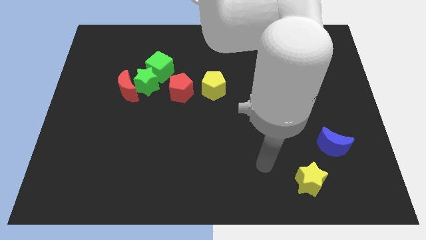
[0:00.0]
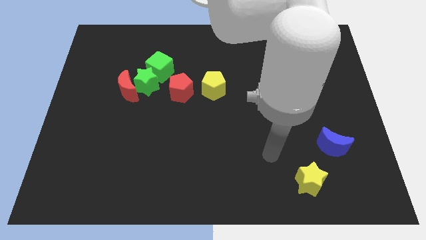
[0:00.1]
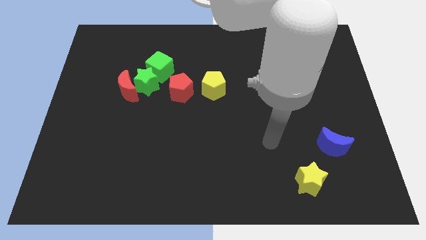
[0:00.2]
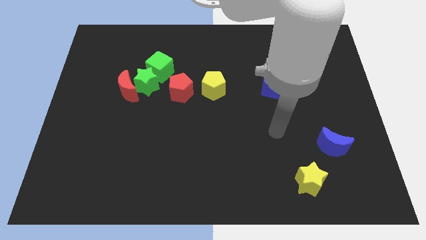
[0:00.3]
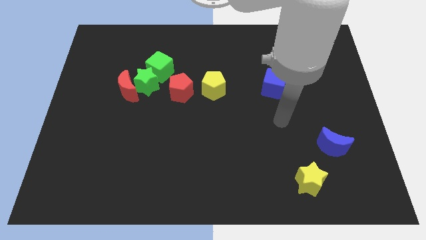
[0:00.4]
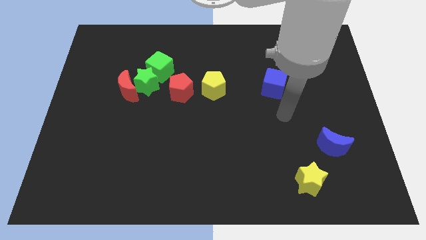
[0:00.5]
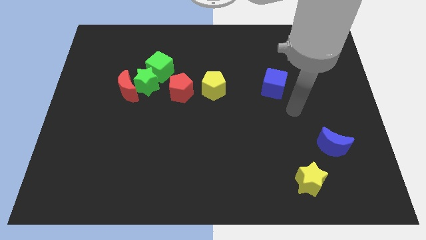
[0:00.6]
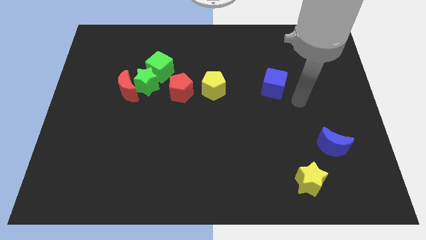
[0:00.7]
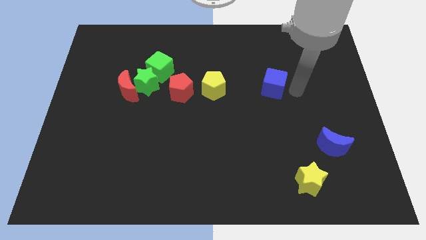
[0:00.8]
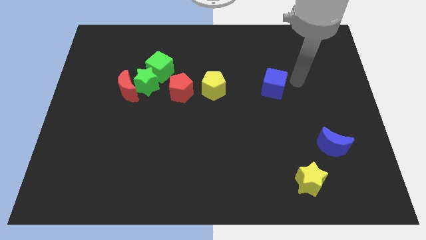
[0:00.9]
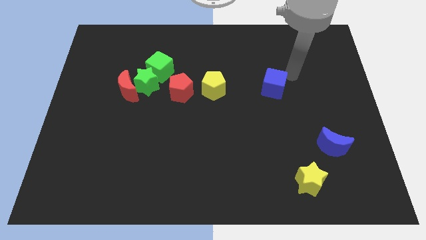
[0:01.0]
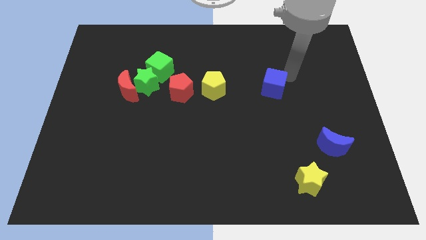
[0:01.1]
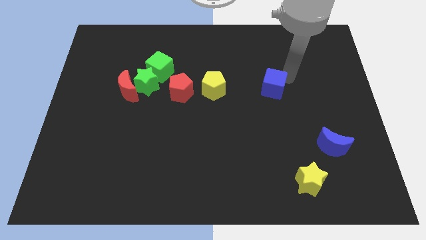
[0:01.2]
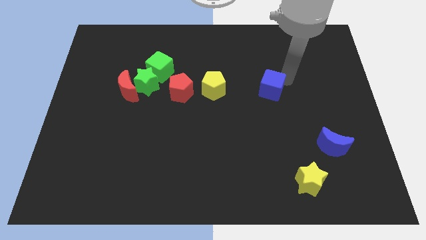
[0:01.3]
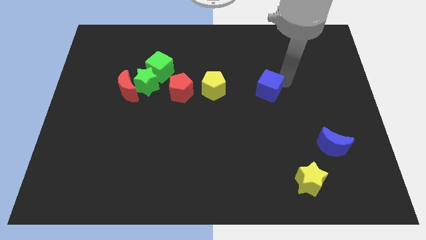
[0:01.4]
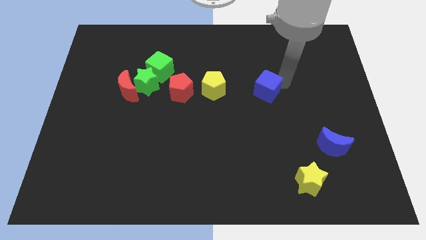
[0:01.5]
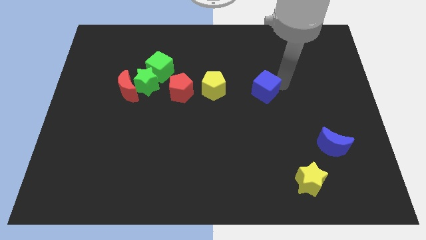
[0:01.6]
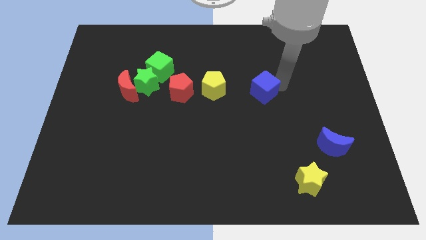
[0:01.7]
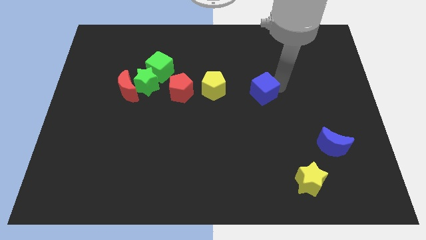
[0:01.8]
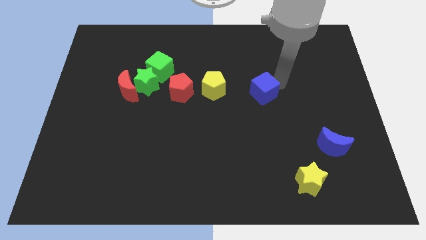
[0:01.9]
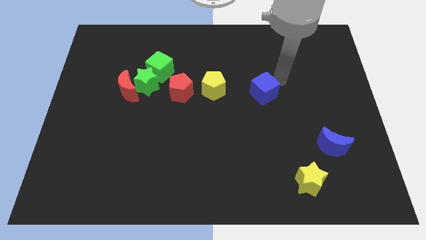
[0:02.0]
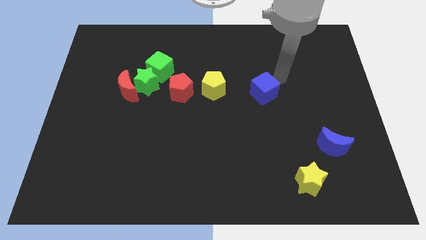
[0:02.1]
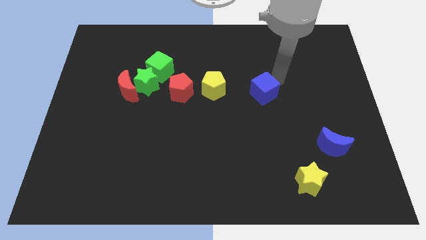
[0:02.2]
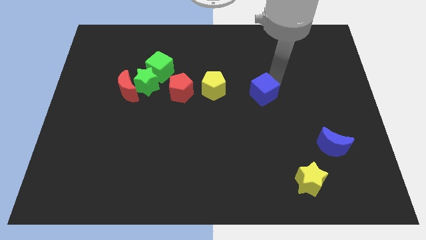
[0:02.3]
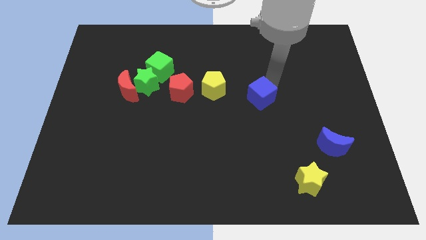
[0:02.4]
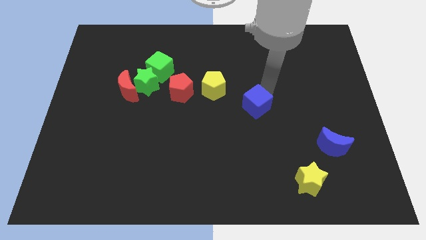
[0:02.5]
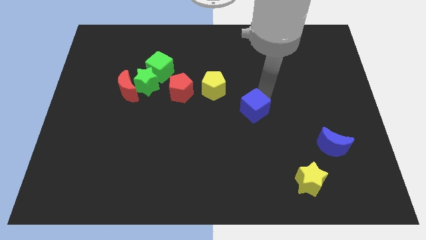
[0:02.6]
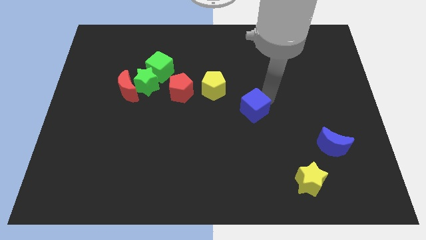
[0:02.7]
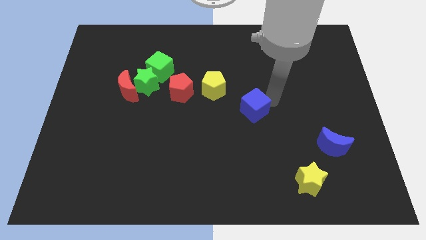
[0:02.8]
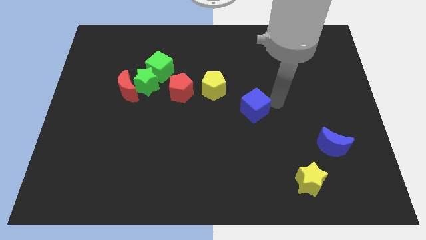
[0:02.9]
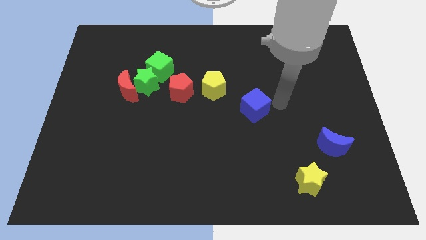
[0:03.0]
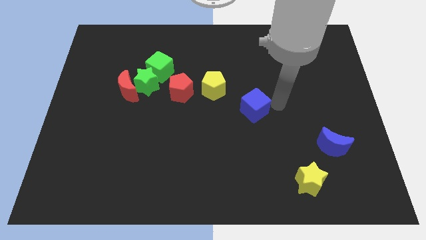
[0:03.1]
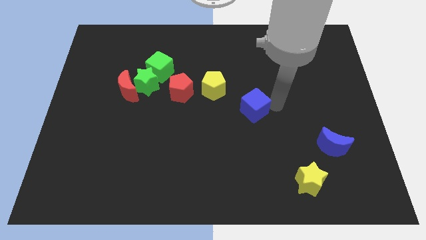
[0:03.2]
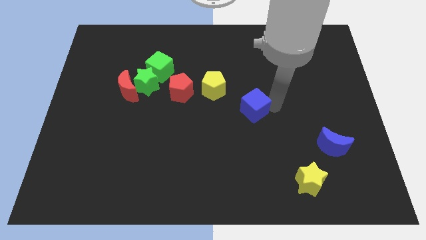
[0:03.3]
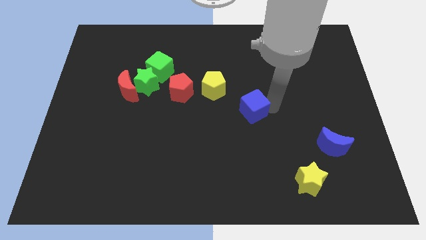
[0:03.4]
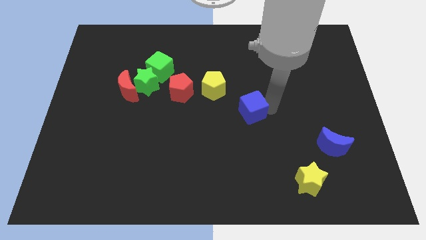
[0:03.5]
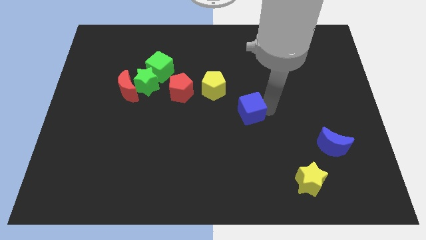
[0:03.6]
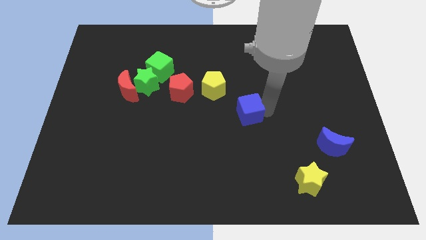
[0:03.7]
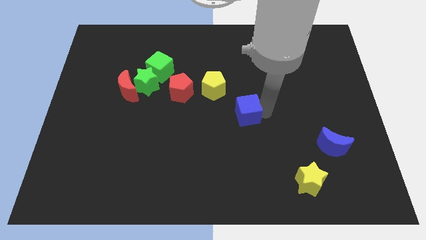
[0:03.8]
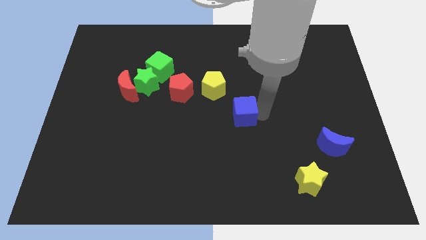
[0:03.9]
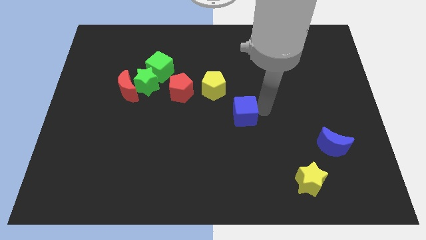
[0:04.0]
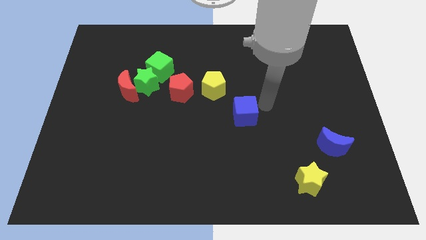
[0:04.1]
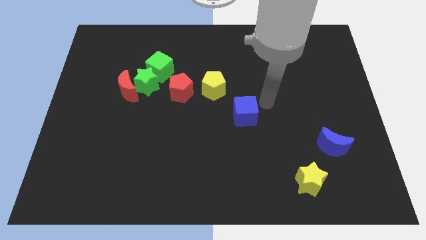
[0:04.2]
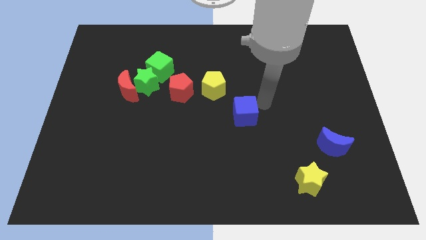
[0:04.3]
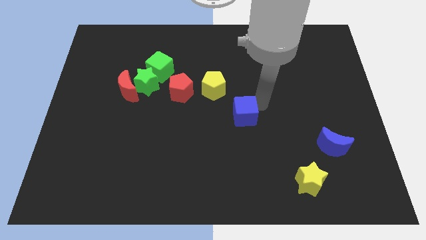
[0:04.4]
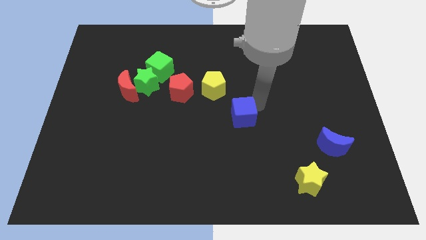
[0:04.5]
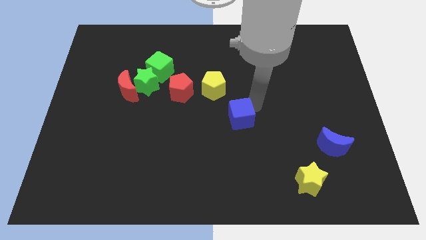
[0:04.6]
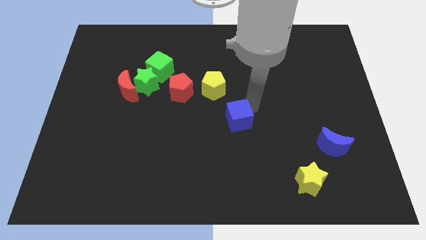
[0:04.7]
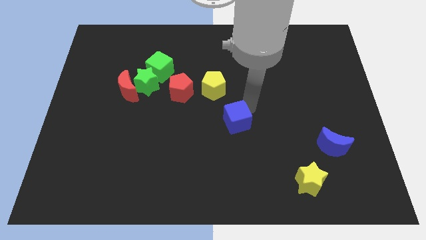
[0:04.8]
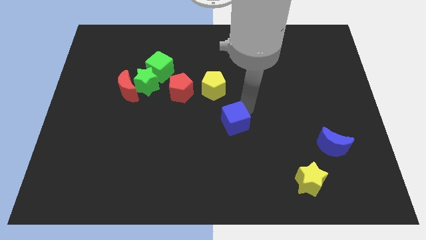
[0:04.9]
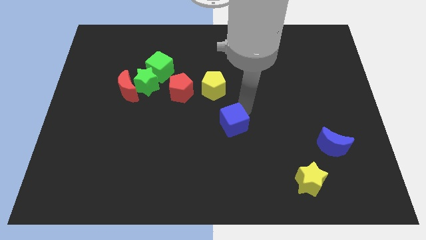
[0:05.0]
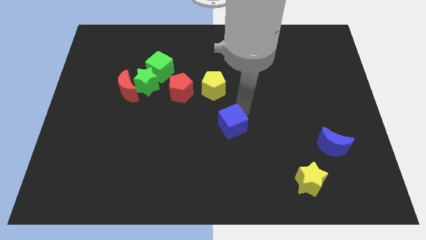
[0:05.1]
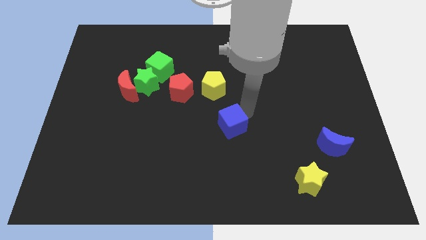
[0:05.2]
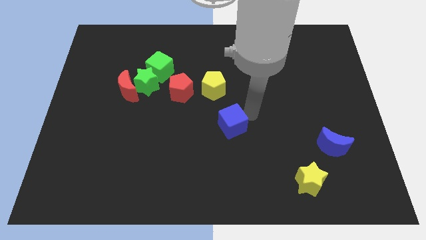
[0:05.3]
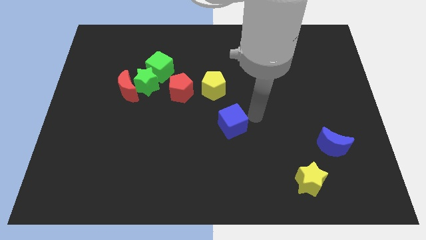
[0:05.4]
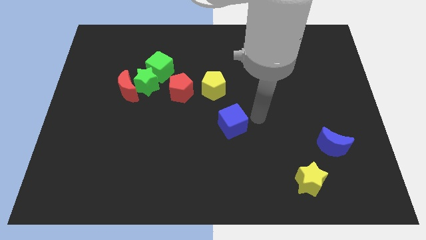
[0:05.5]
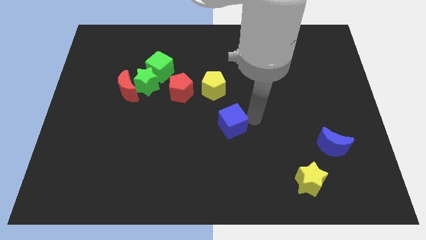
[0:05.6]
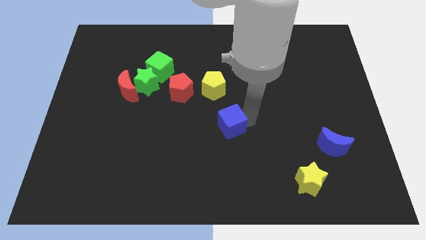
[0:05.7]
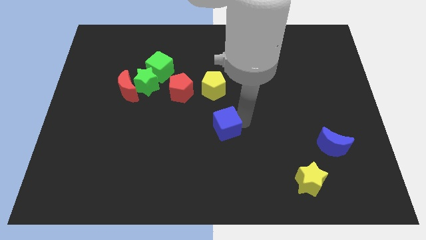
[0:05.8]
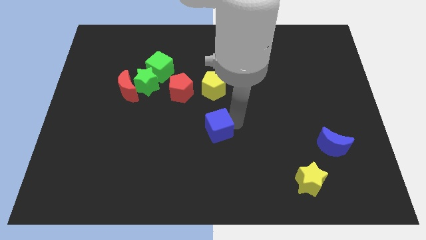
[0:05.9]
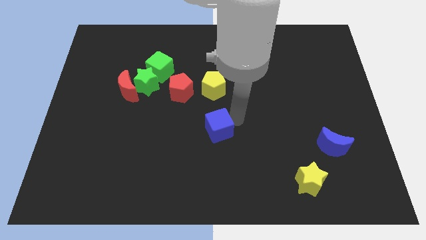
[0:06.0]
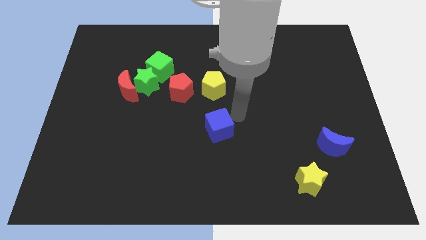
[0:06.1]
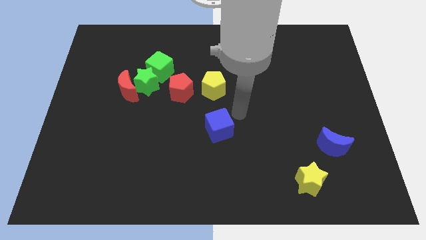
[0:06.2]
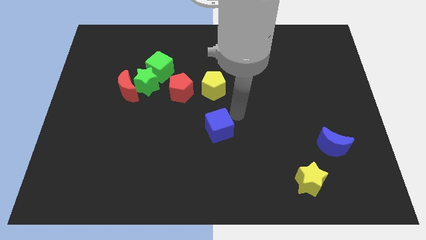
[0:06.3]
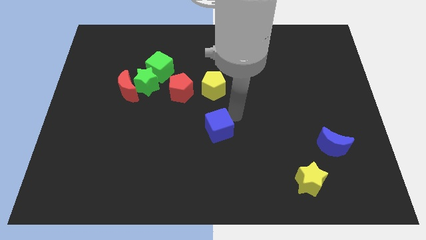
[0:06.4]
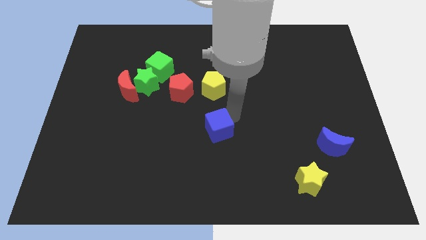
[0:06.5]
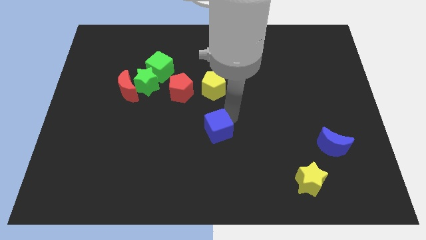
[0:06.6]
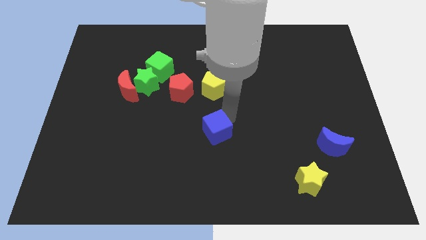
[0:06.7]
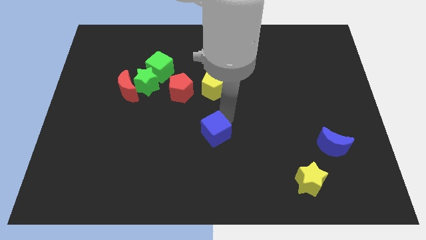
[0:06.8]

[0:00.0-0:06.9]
slide the blue cube diagonally down and to the left

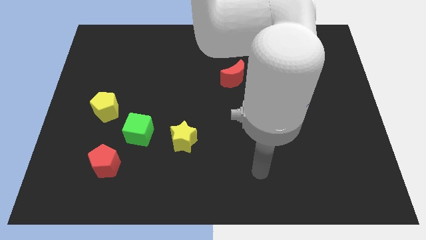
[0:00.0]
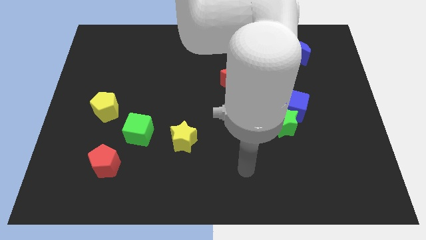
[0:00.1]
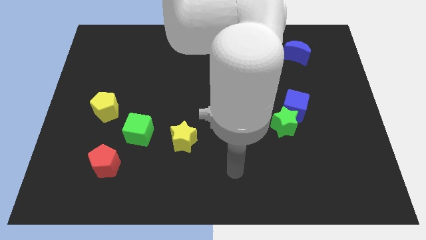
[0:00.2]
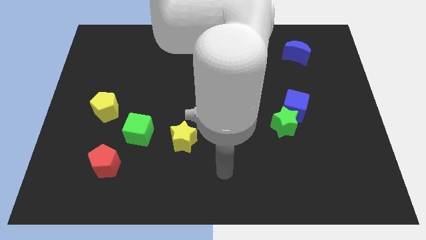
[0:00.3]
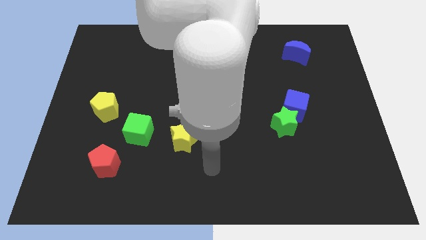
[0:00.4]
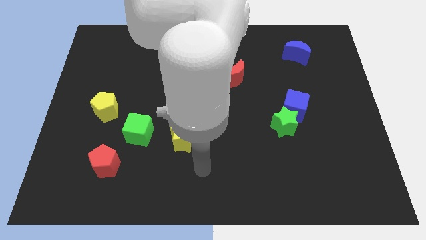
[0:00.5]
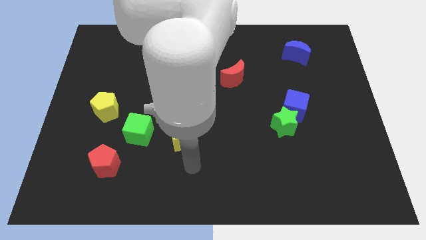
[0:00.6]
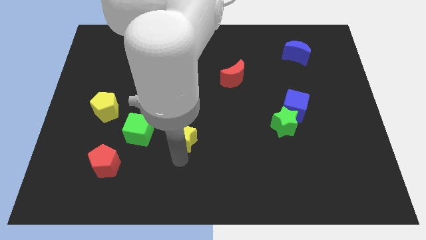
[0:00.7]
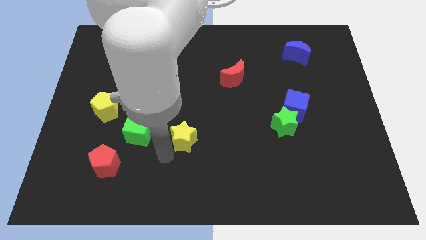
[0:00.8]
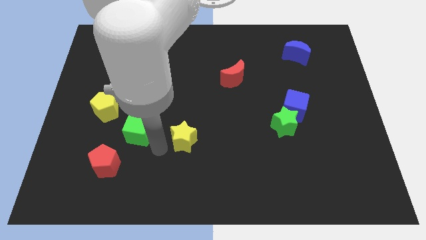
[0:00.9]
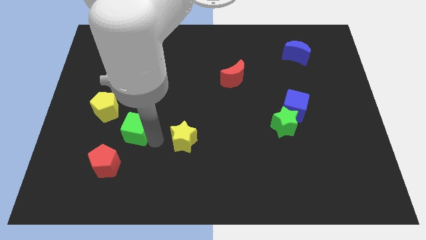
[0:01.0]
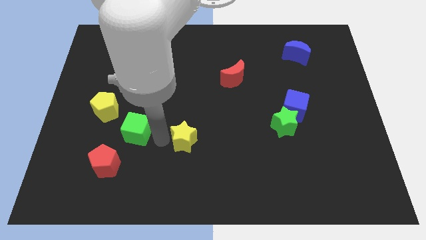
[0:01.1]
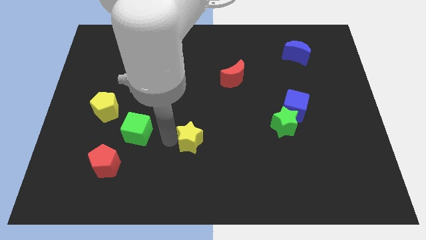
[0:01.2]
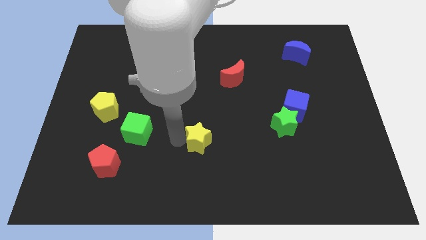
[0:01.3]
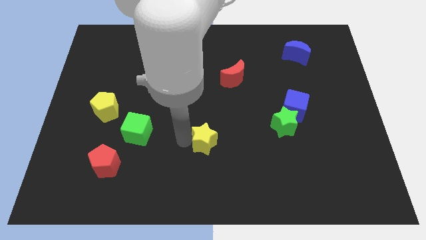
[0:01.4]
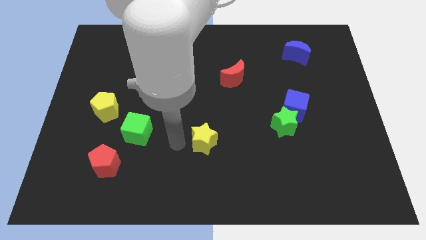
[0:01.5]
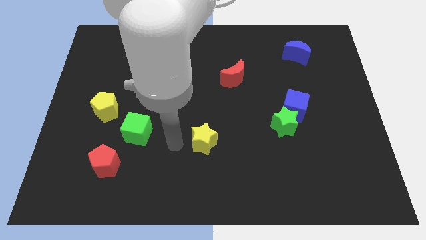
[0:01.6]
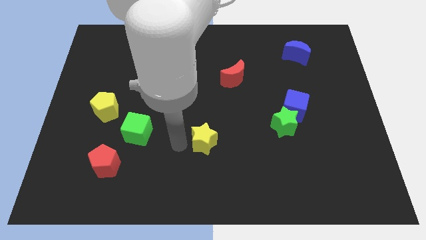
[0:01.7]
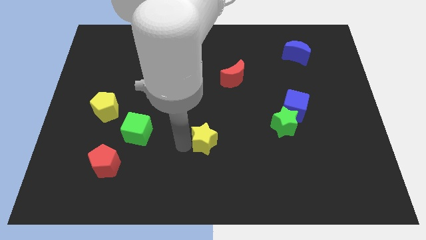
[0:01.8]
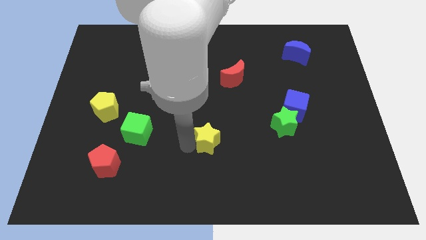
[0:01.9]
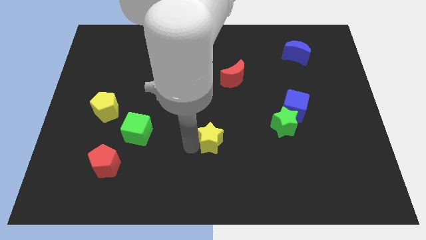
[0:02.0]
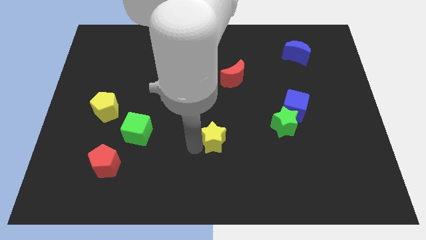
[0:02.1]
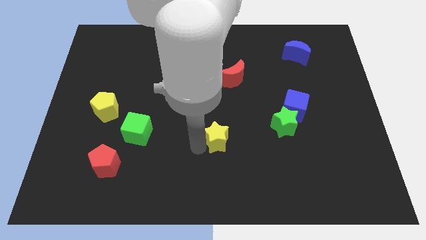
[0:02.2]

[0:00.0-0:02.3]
push the yellow star to the right a bit
